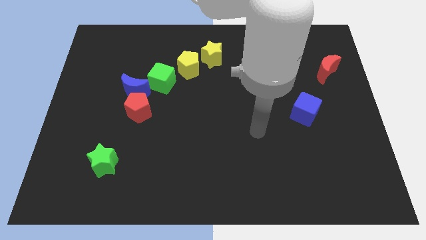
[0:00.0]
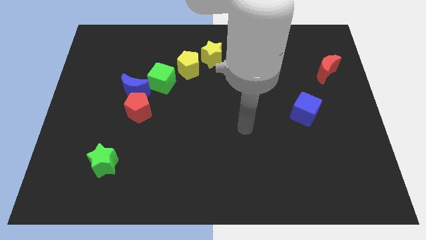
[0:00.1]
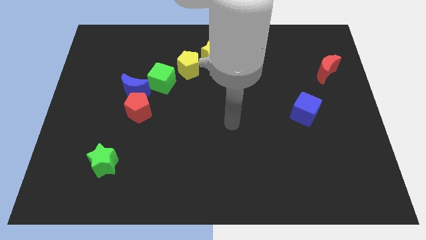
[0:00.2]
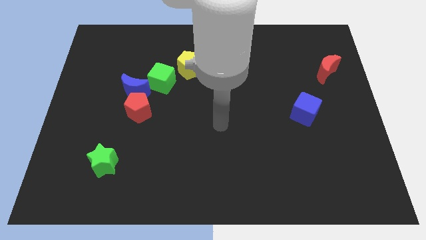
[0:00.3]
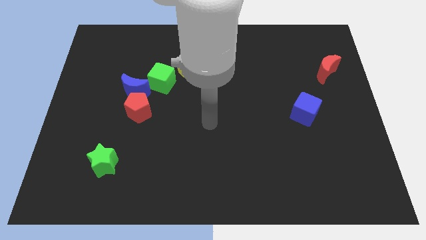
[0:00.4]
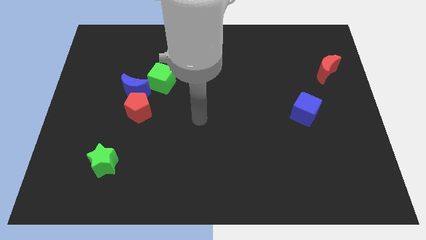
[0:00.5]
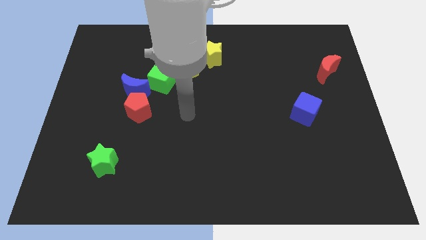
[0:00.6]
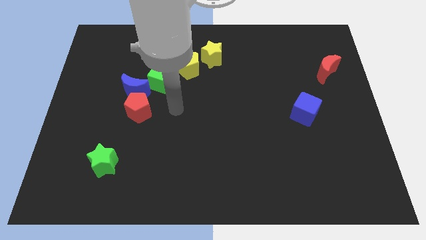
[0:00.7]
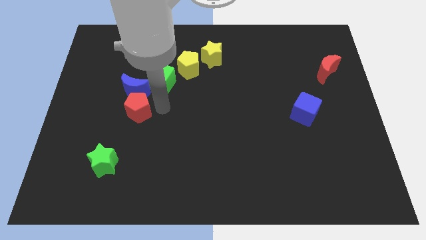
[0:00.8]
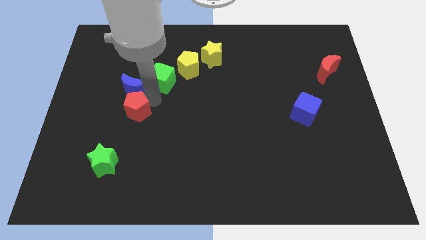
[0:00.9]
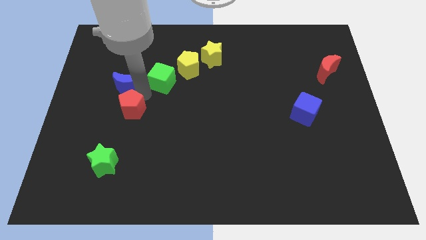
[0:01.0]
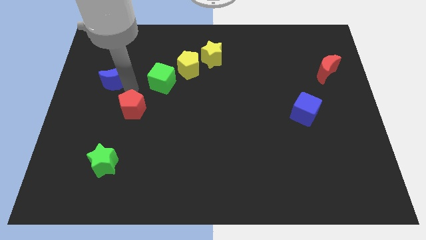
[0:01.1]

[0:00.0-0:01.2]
move the red pentagon away from the blue moon

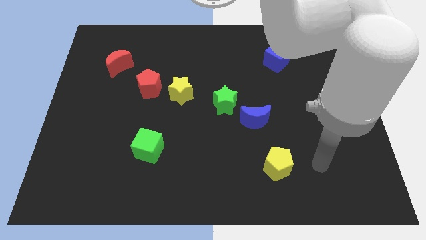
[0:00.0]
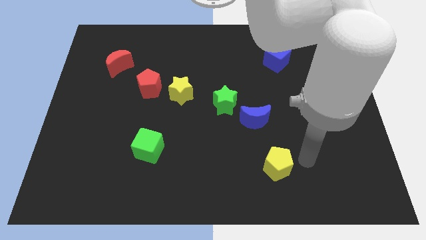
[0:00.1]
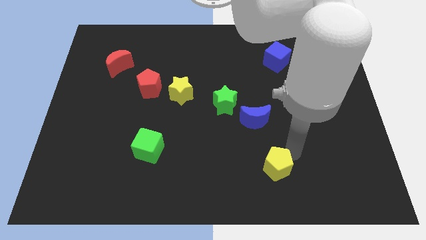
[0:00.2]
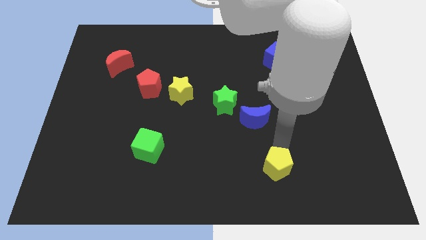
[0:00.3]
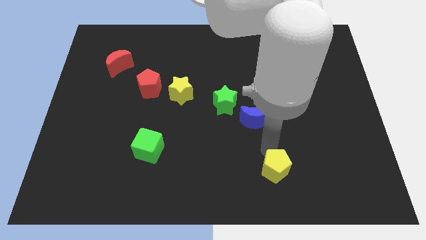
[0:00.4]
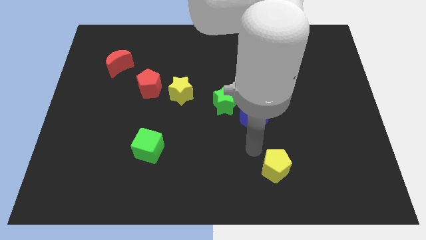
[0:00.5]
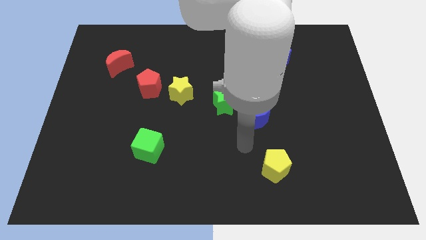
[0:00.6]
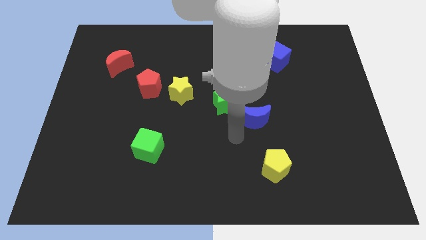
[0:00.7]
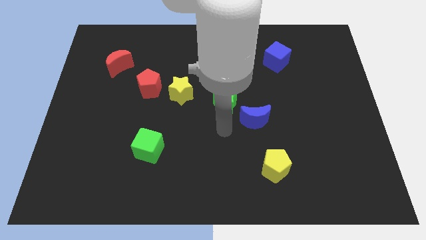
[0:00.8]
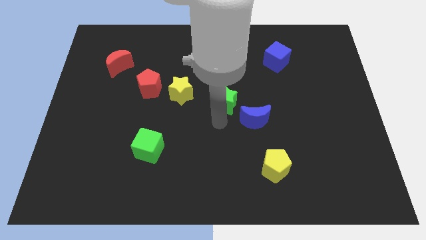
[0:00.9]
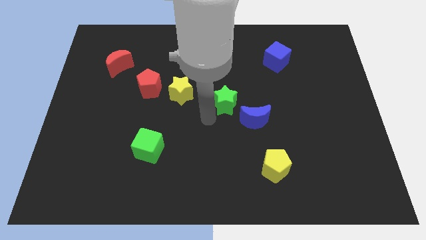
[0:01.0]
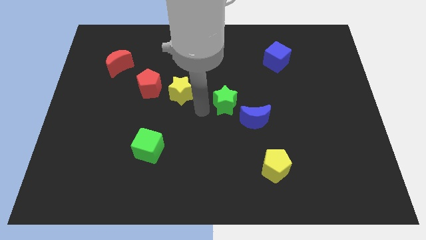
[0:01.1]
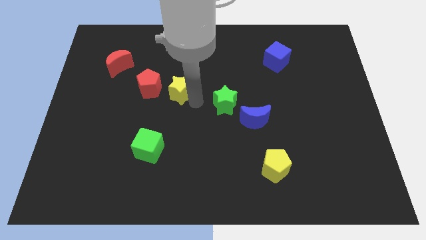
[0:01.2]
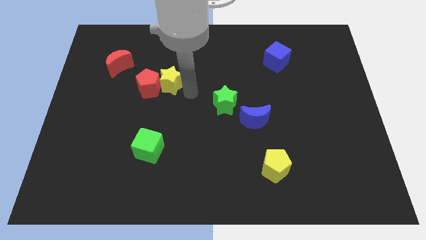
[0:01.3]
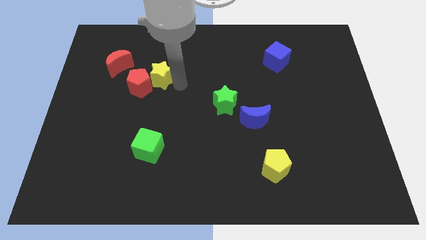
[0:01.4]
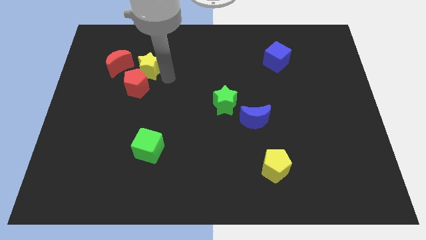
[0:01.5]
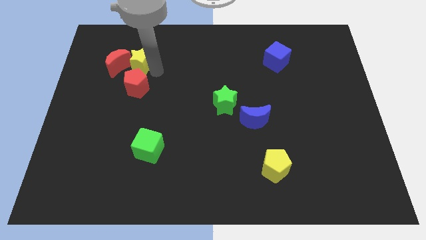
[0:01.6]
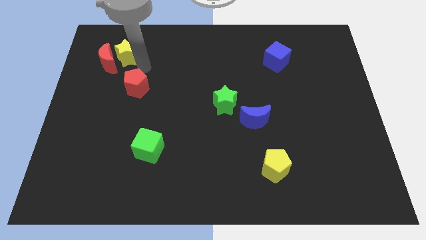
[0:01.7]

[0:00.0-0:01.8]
separate the red pentagon from the yellow star

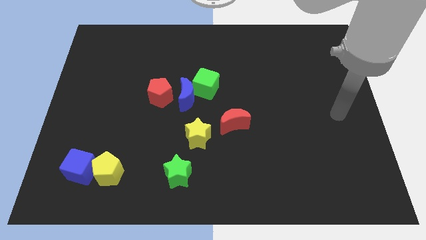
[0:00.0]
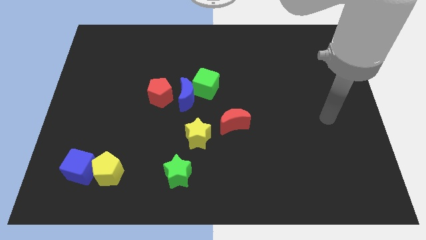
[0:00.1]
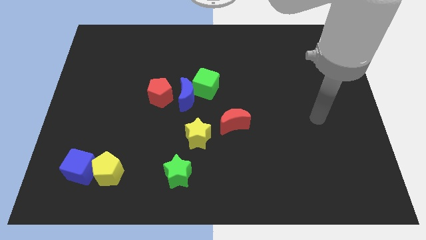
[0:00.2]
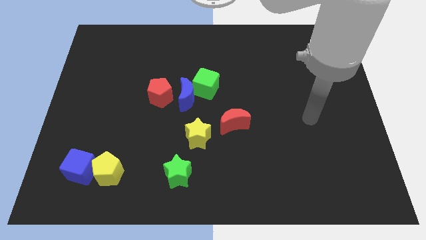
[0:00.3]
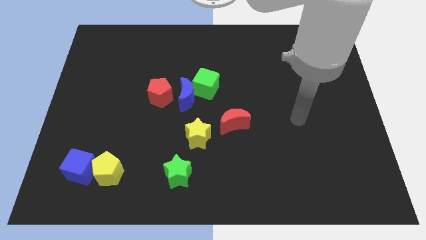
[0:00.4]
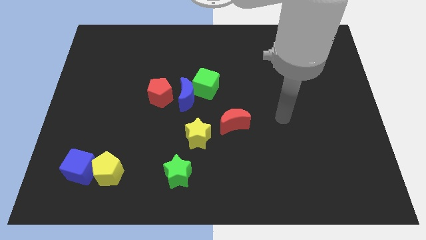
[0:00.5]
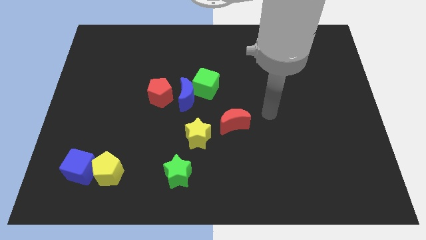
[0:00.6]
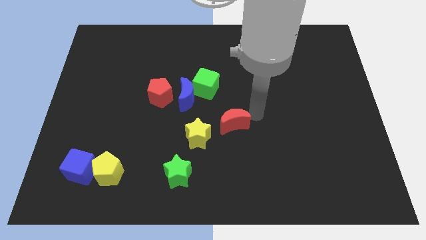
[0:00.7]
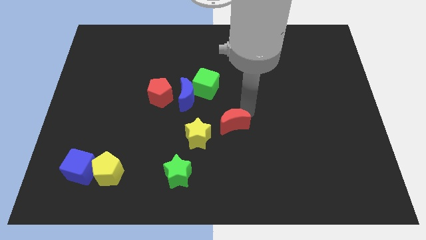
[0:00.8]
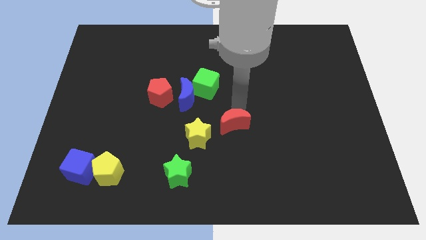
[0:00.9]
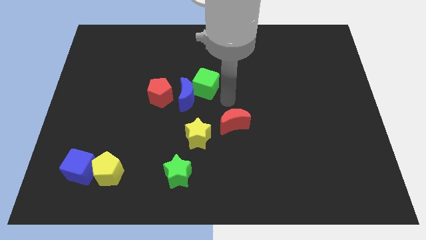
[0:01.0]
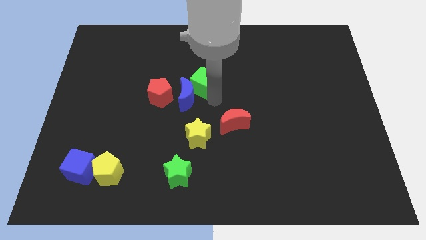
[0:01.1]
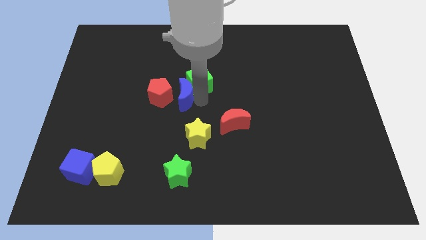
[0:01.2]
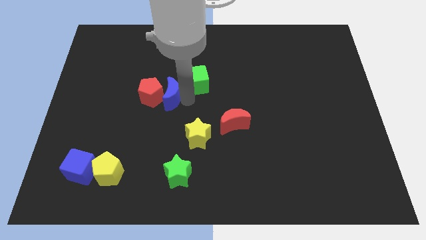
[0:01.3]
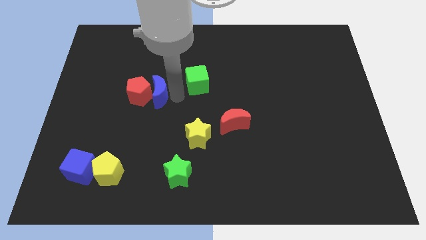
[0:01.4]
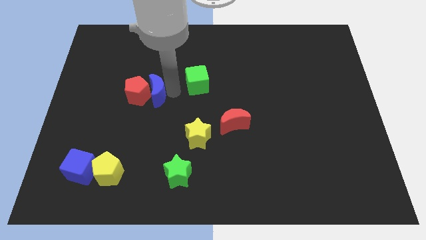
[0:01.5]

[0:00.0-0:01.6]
move the green cube away from the blue moon

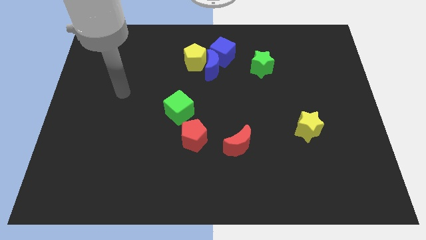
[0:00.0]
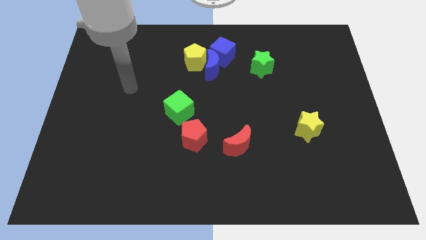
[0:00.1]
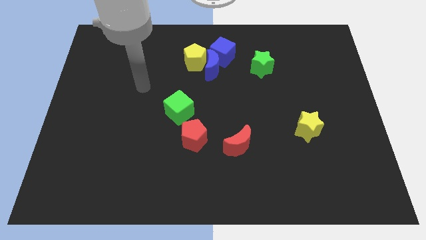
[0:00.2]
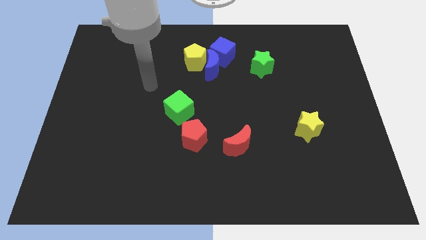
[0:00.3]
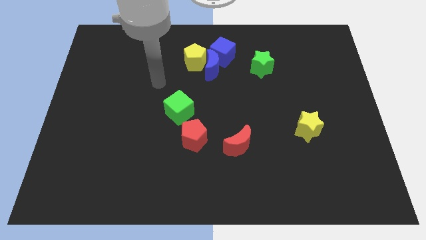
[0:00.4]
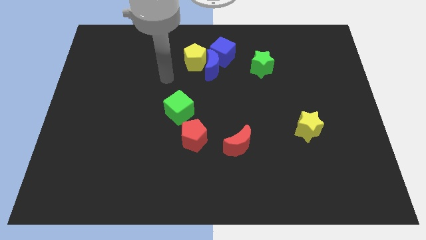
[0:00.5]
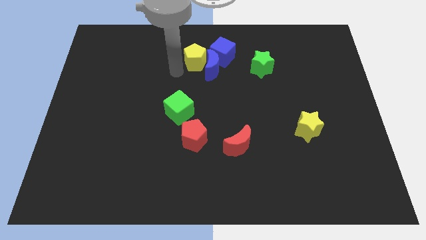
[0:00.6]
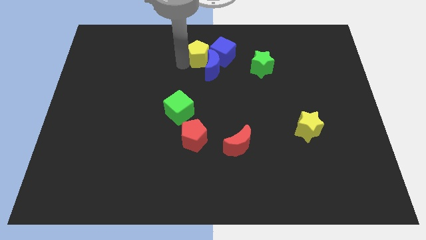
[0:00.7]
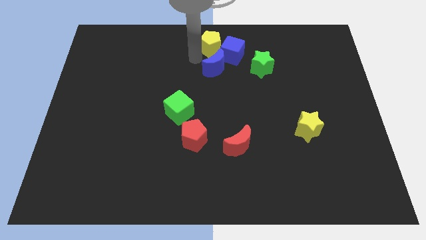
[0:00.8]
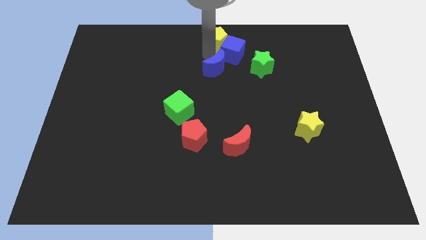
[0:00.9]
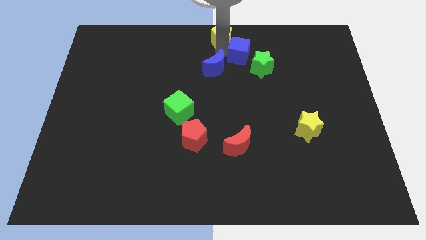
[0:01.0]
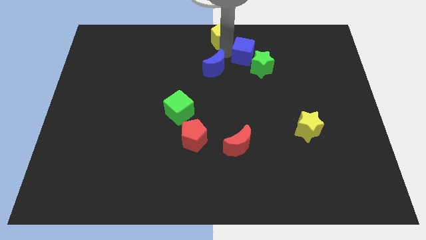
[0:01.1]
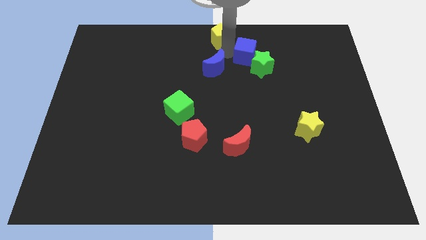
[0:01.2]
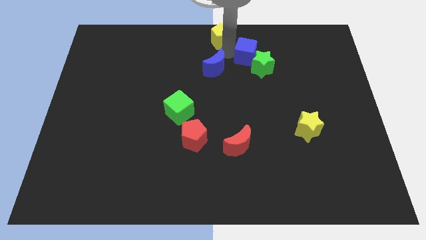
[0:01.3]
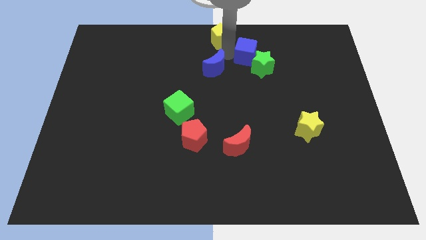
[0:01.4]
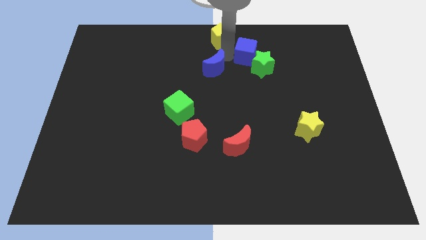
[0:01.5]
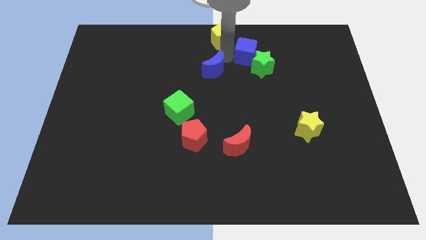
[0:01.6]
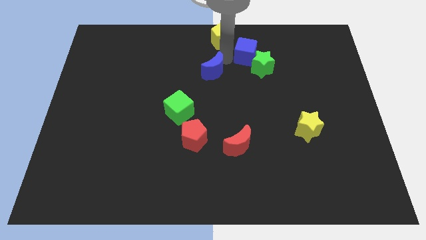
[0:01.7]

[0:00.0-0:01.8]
pull the blue moon apart from the yellow pentagon and blue cube

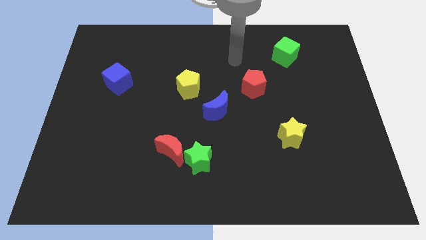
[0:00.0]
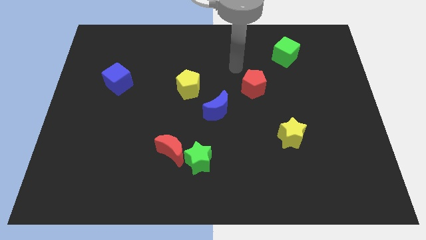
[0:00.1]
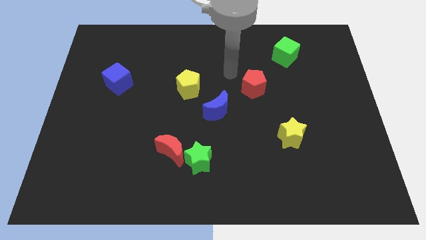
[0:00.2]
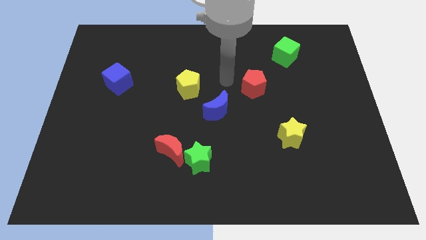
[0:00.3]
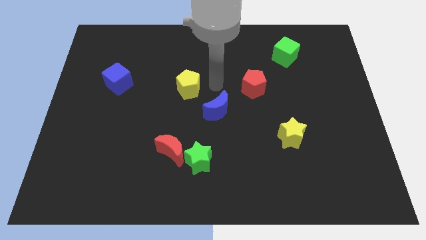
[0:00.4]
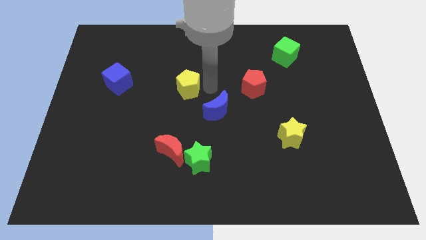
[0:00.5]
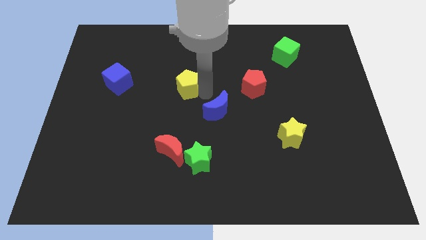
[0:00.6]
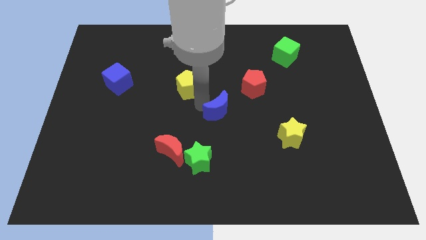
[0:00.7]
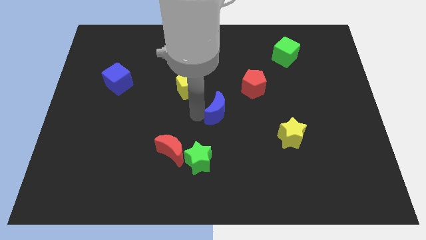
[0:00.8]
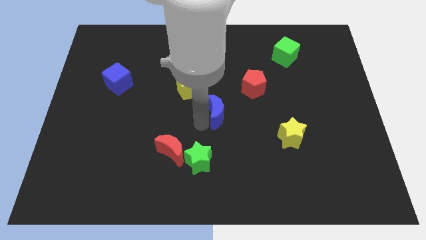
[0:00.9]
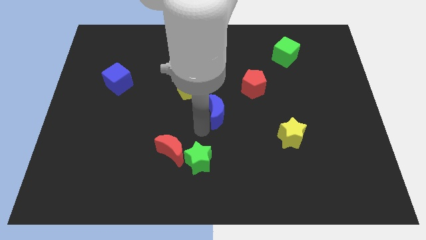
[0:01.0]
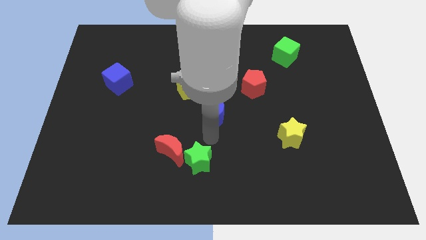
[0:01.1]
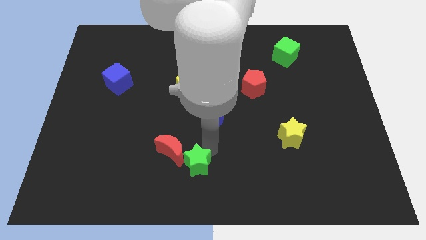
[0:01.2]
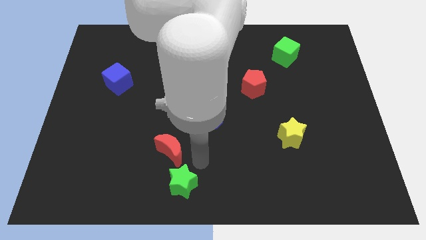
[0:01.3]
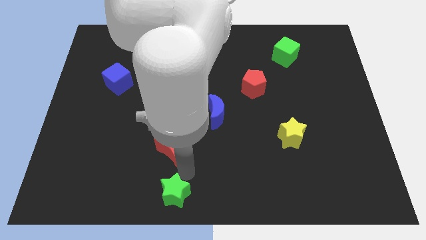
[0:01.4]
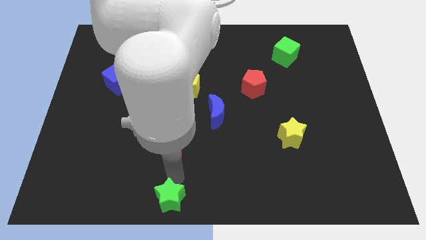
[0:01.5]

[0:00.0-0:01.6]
pull the red moon apart from the green star

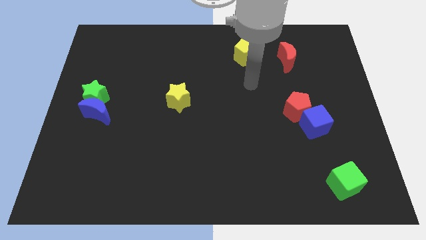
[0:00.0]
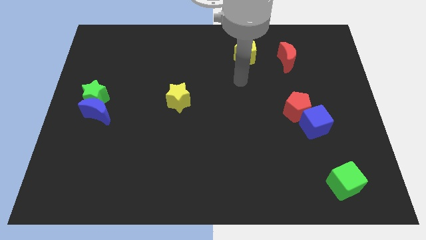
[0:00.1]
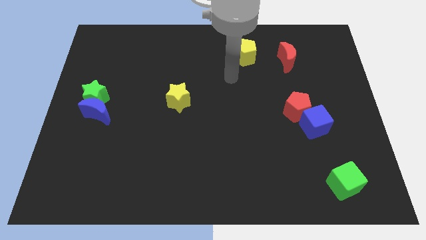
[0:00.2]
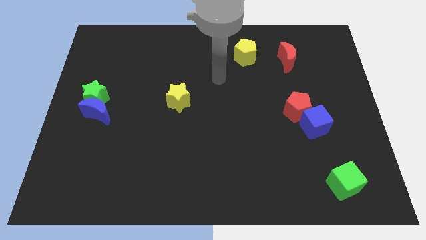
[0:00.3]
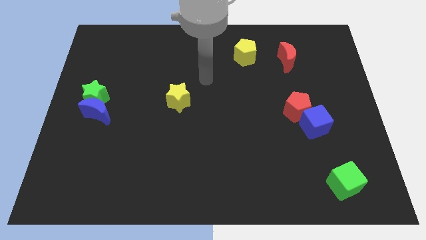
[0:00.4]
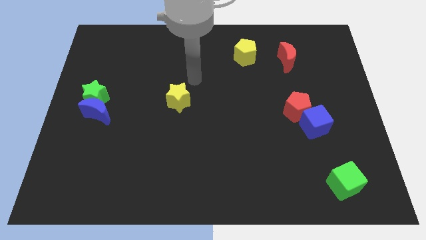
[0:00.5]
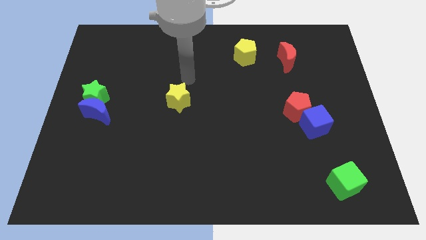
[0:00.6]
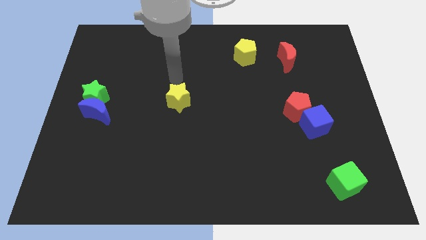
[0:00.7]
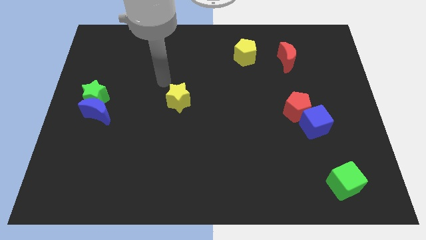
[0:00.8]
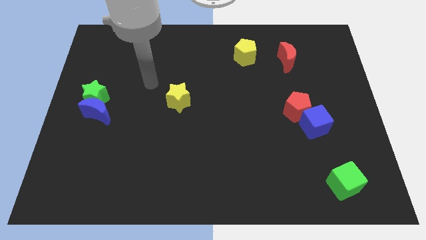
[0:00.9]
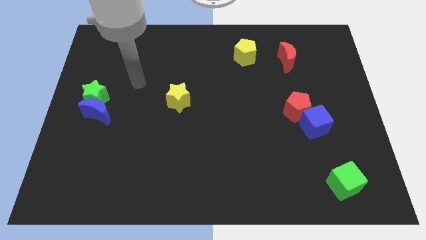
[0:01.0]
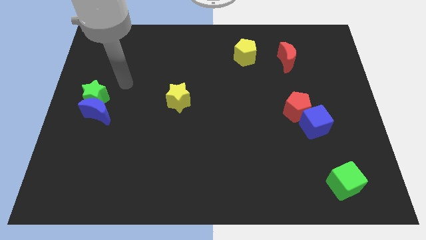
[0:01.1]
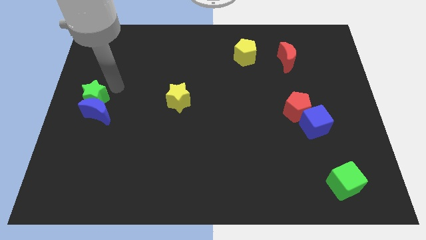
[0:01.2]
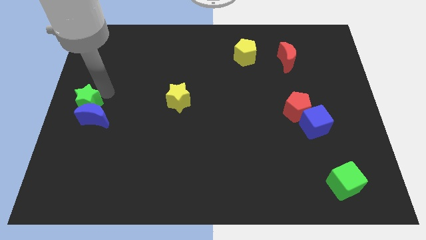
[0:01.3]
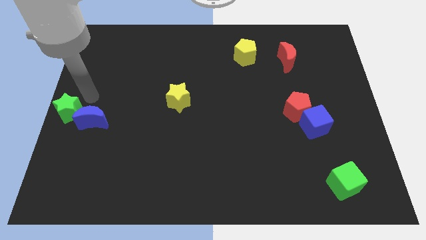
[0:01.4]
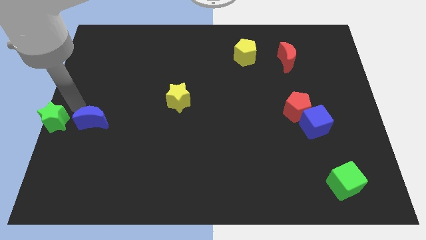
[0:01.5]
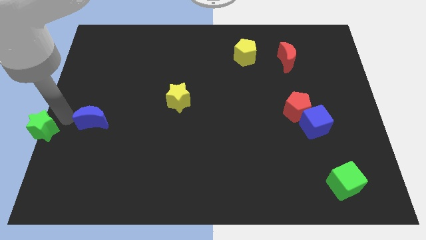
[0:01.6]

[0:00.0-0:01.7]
pull the blue moon apart from the green star
